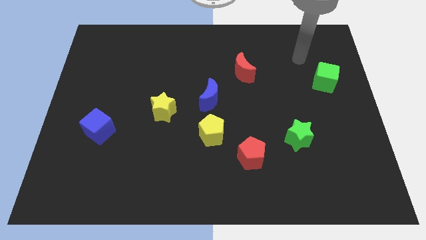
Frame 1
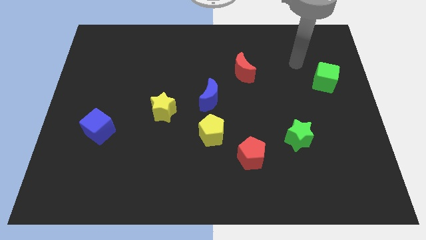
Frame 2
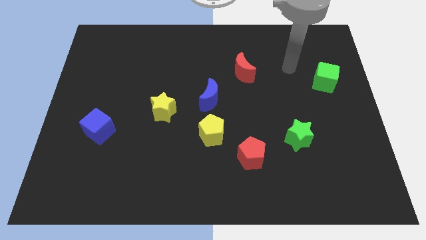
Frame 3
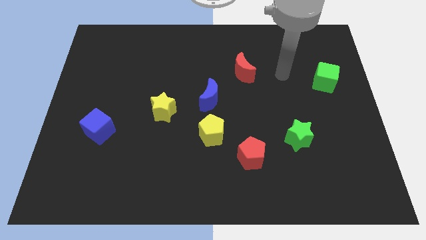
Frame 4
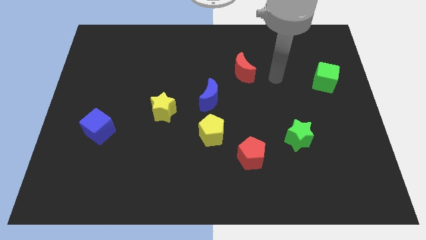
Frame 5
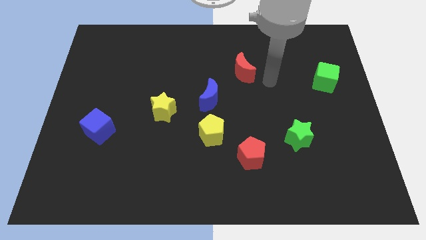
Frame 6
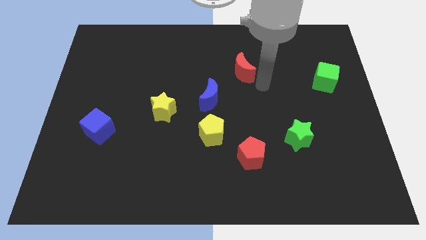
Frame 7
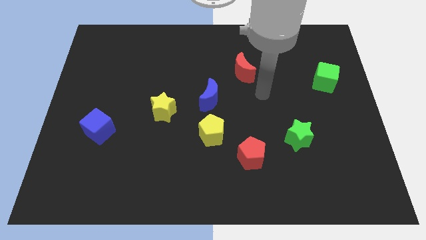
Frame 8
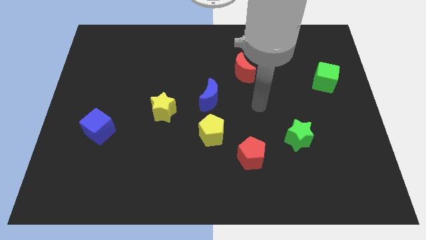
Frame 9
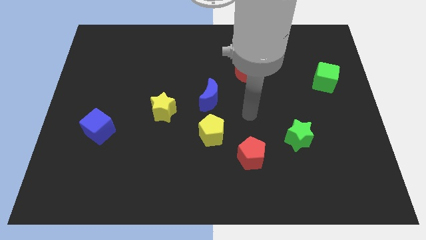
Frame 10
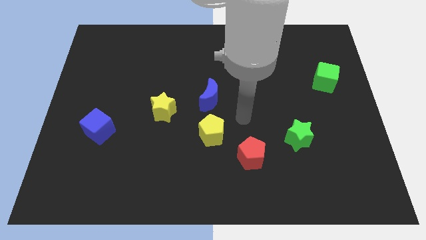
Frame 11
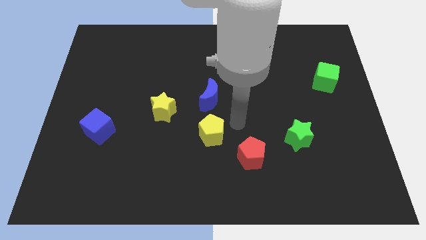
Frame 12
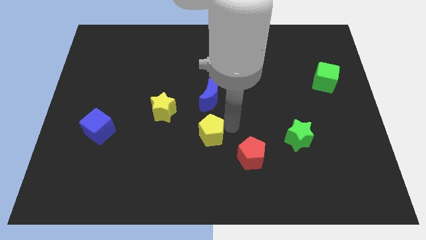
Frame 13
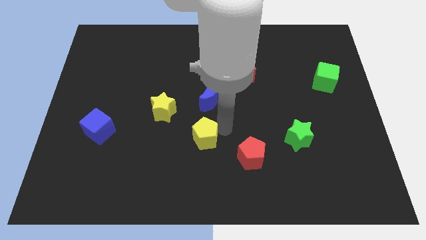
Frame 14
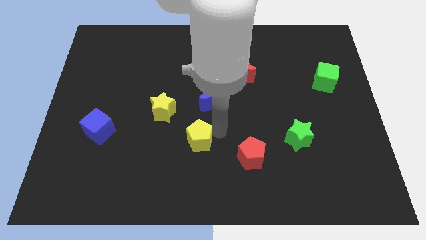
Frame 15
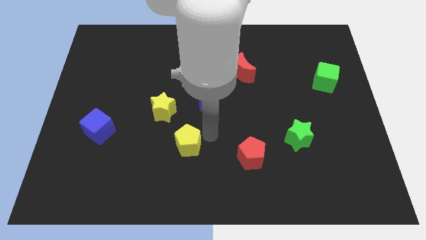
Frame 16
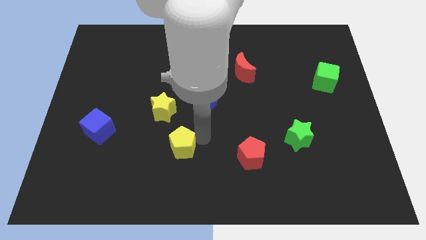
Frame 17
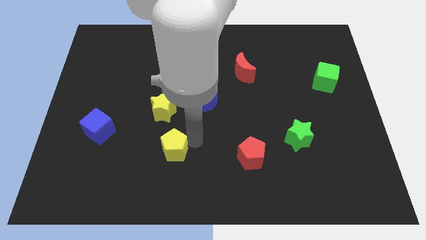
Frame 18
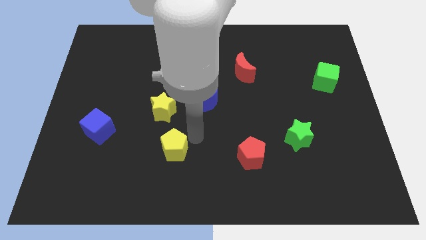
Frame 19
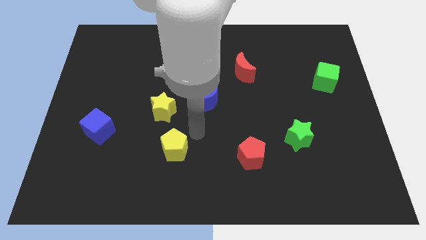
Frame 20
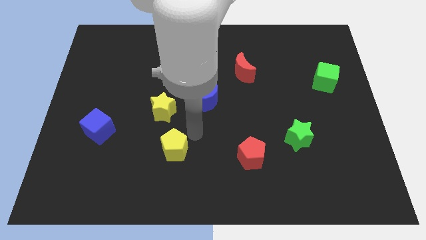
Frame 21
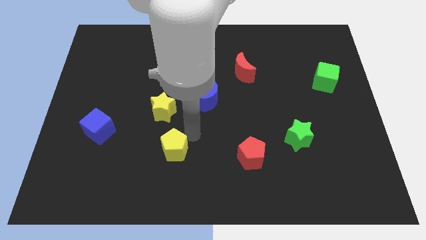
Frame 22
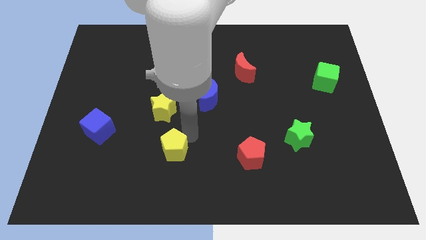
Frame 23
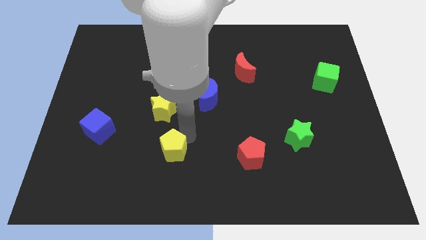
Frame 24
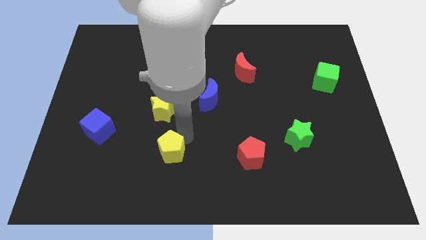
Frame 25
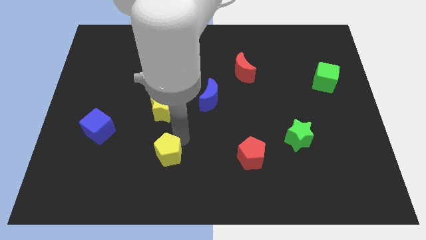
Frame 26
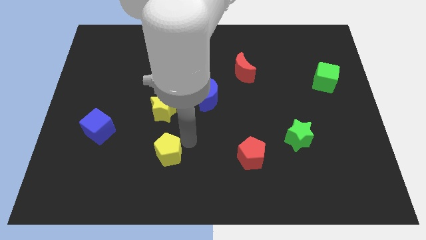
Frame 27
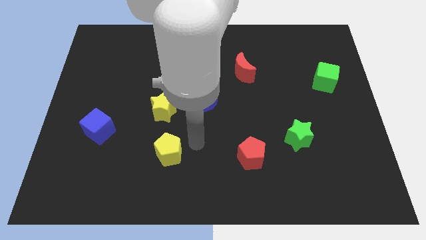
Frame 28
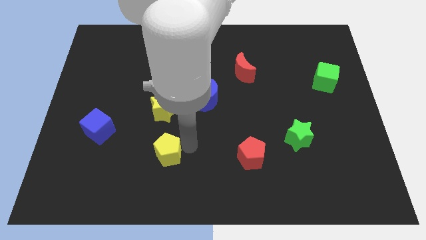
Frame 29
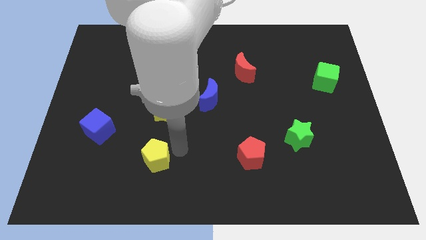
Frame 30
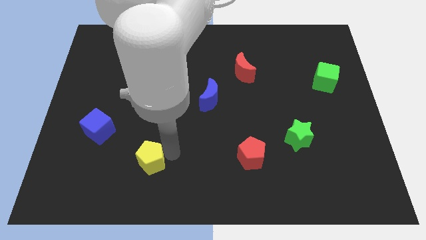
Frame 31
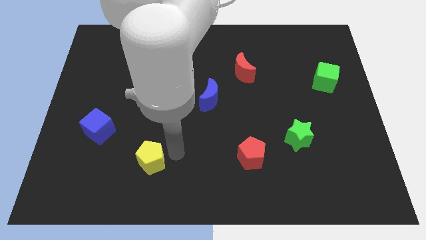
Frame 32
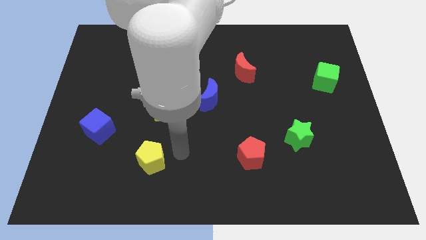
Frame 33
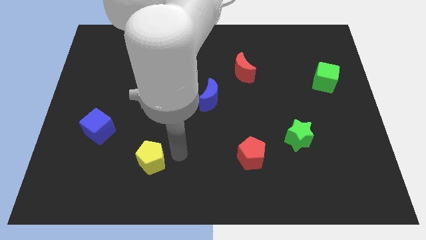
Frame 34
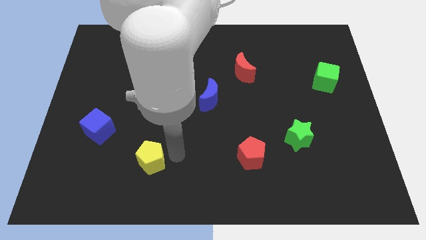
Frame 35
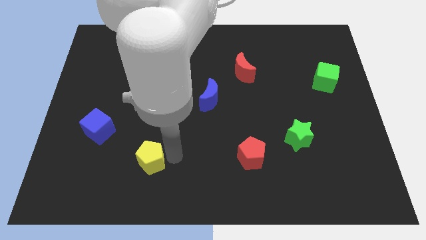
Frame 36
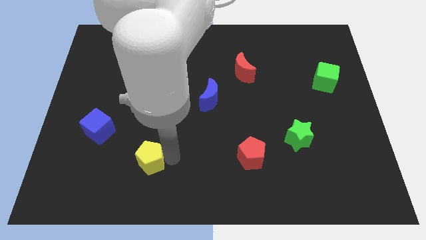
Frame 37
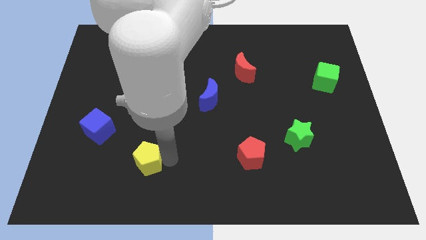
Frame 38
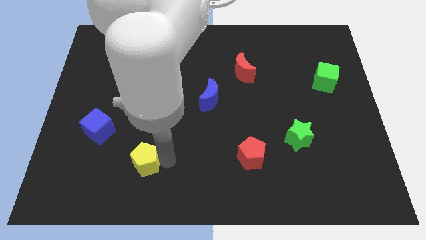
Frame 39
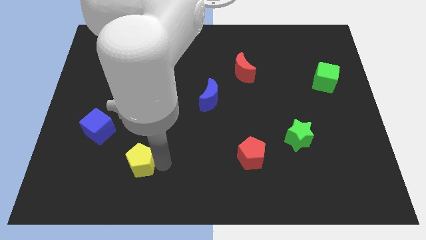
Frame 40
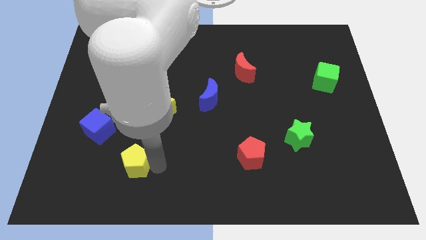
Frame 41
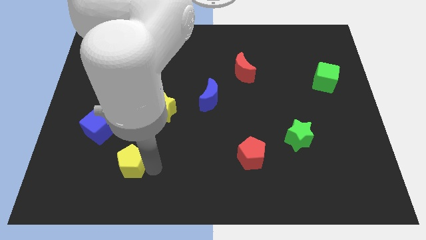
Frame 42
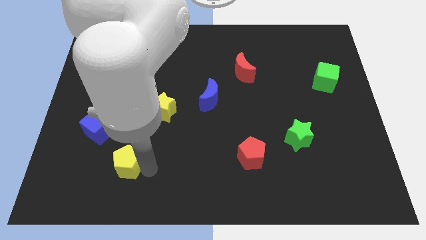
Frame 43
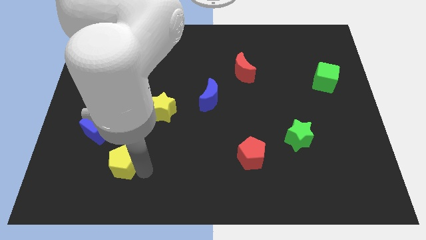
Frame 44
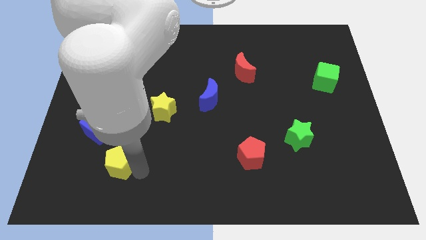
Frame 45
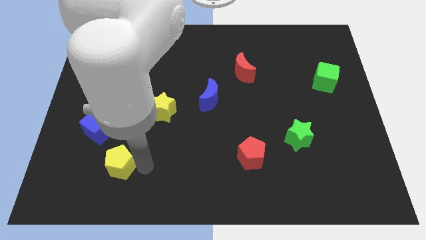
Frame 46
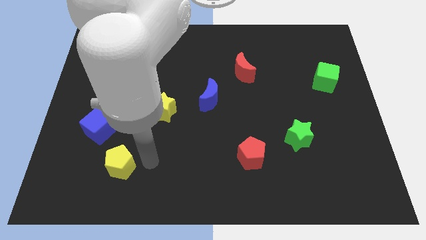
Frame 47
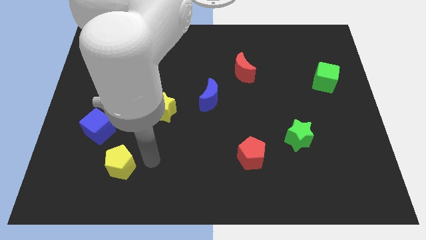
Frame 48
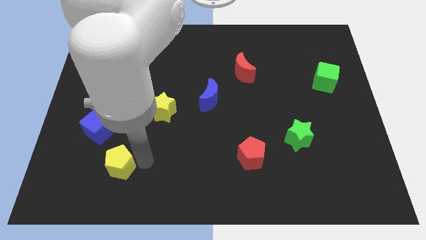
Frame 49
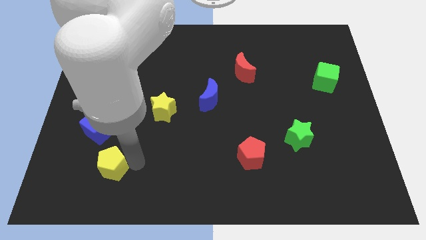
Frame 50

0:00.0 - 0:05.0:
slide the yellow pentagon below the blue cube

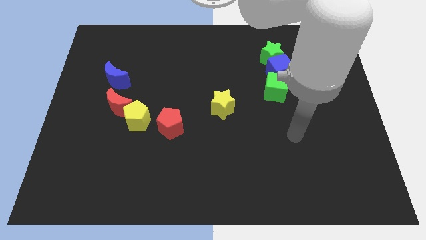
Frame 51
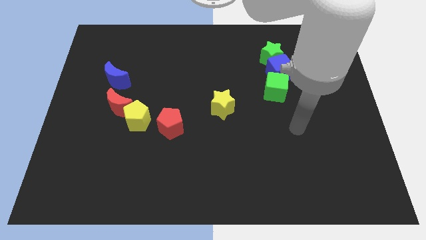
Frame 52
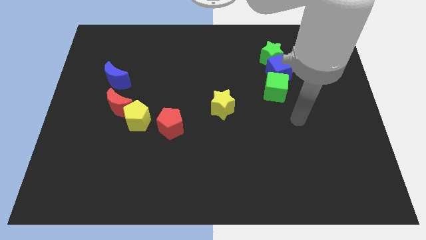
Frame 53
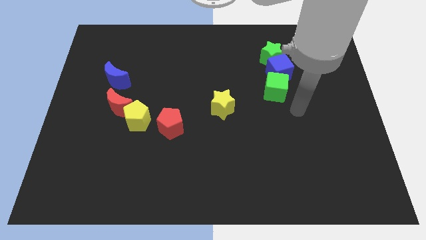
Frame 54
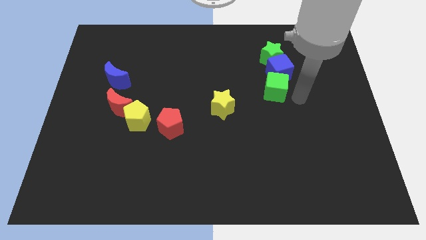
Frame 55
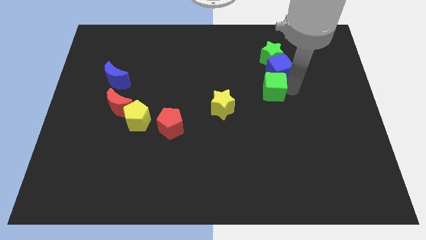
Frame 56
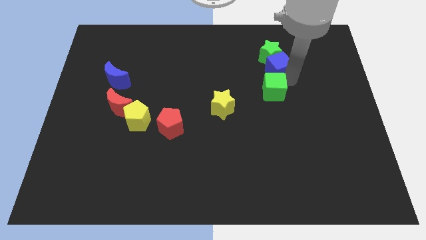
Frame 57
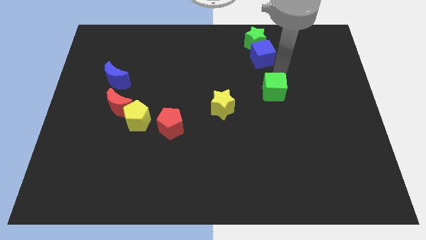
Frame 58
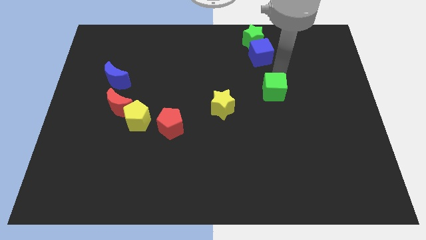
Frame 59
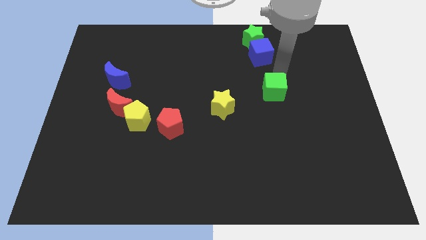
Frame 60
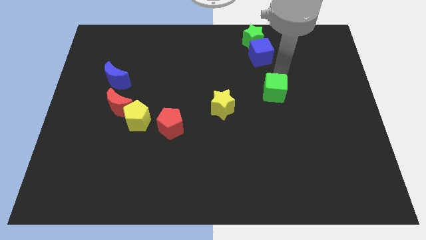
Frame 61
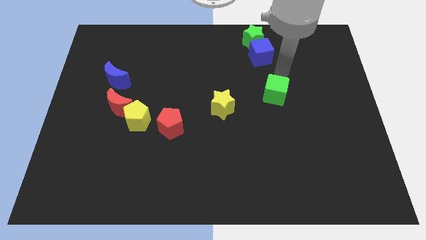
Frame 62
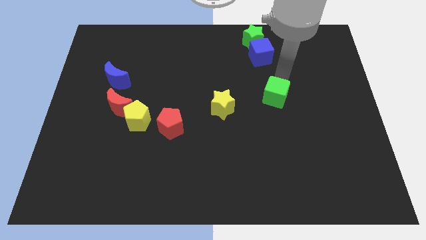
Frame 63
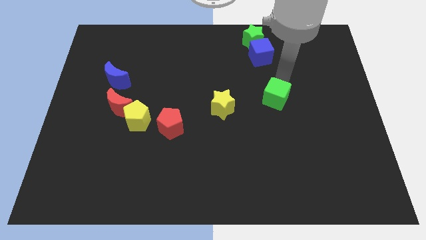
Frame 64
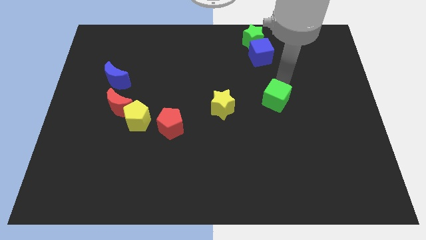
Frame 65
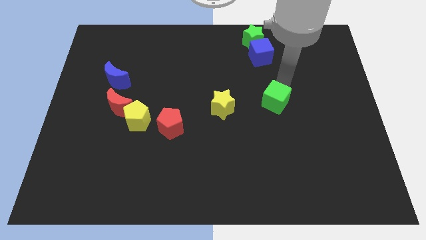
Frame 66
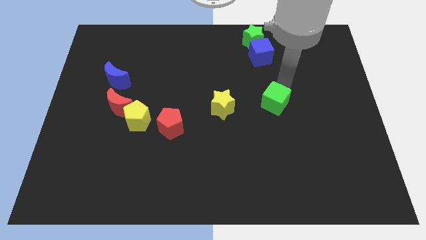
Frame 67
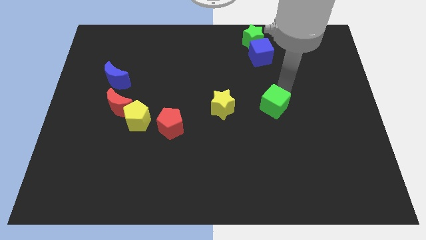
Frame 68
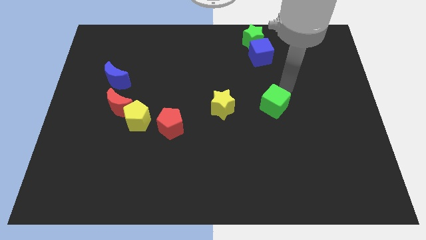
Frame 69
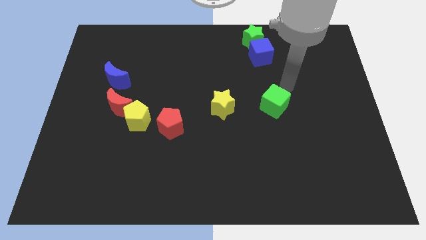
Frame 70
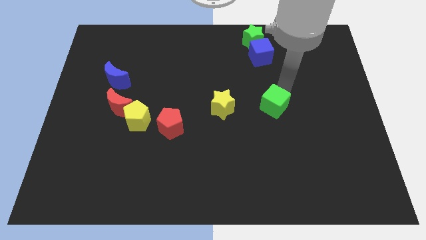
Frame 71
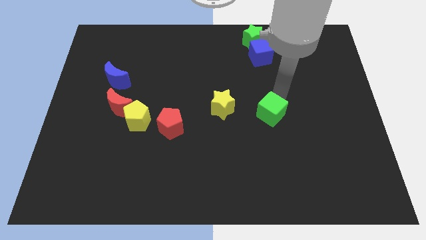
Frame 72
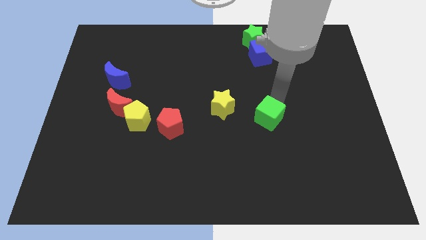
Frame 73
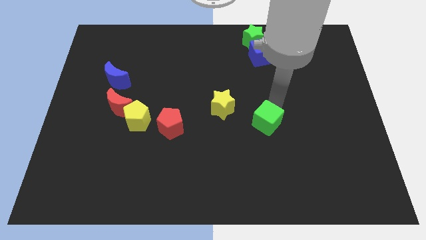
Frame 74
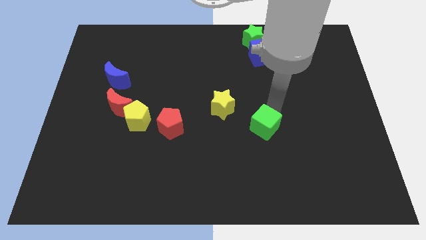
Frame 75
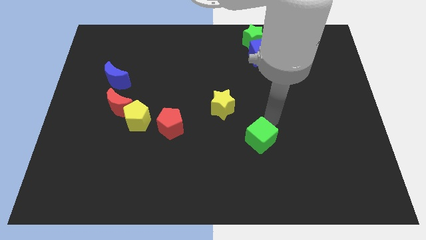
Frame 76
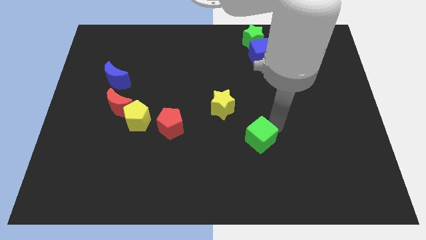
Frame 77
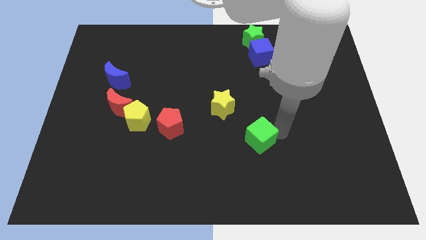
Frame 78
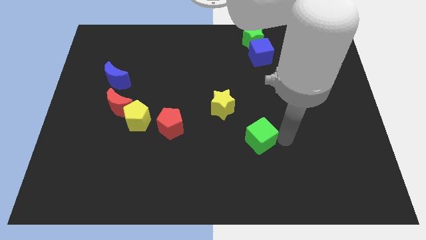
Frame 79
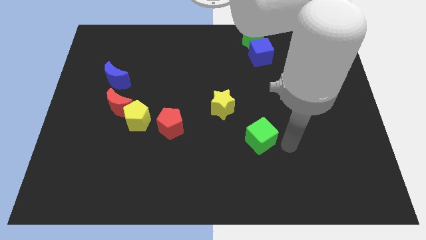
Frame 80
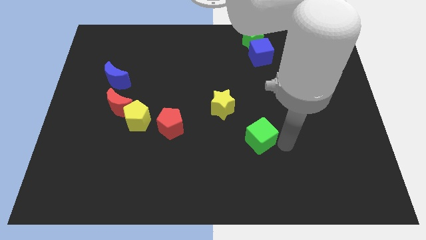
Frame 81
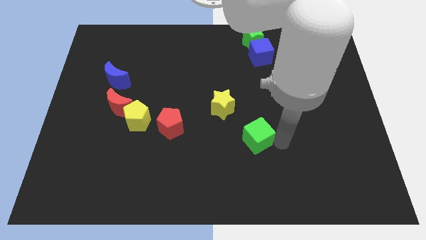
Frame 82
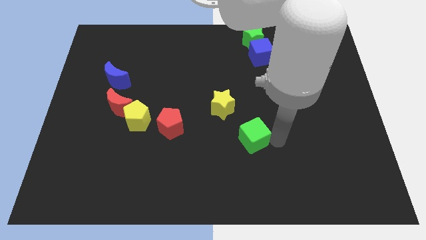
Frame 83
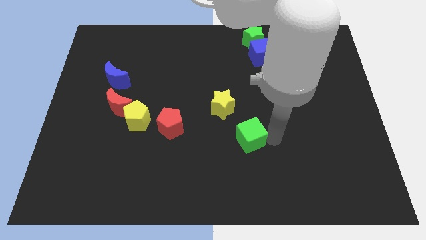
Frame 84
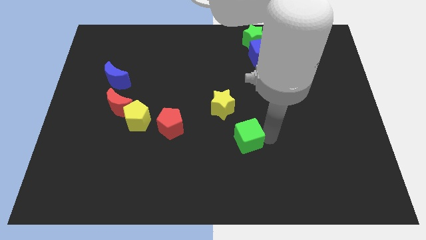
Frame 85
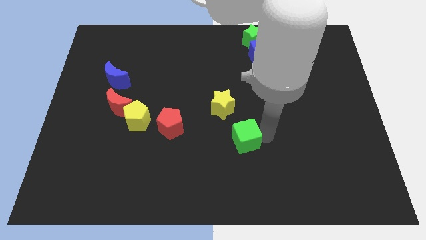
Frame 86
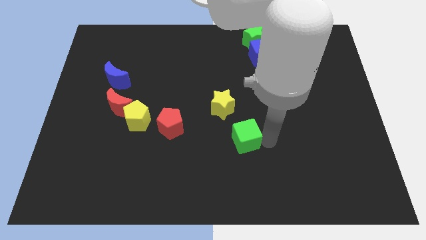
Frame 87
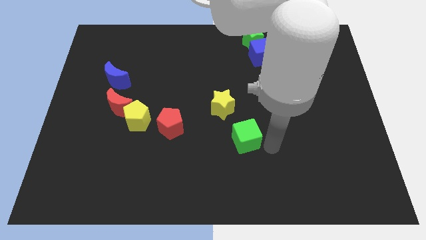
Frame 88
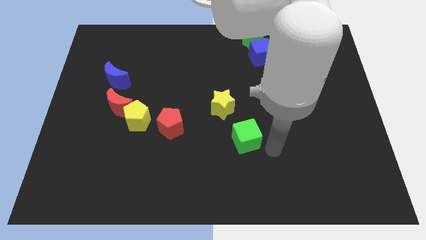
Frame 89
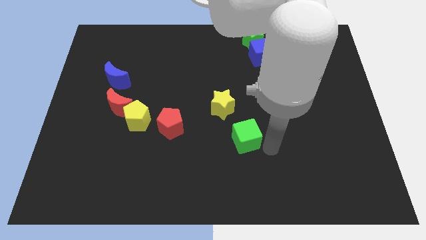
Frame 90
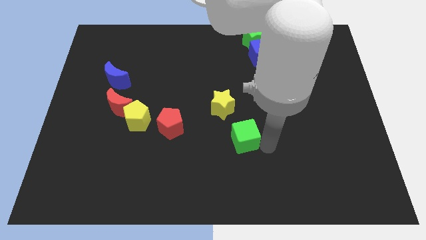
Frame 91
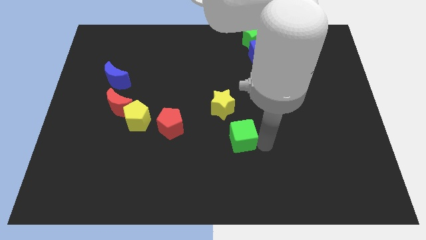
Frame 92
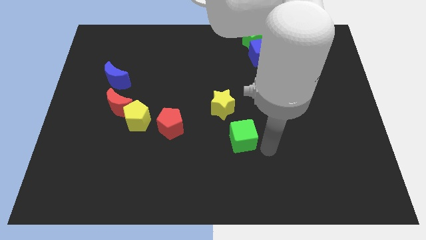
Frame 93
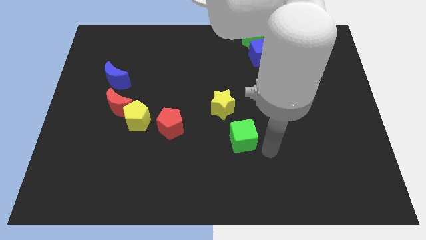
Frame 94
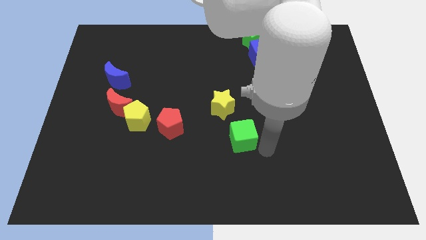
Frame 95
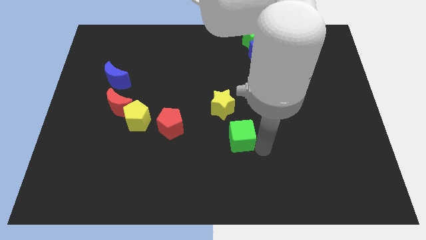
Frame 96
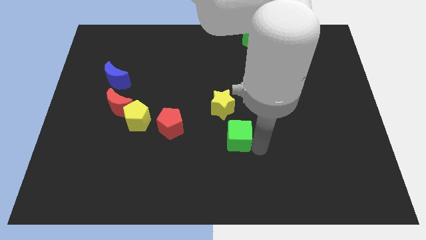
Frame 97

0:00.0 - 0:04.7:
push the green cube to the right of the red pentagon
